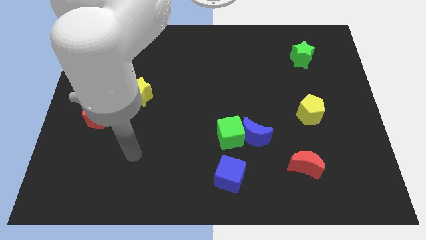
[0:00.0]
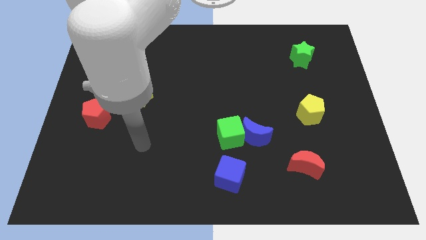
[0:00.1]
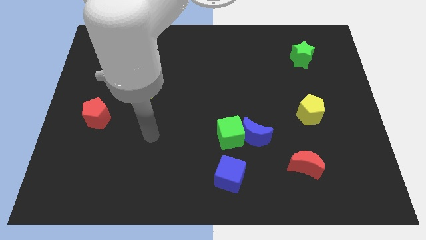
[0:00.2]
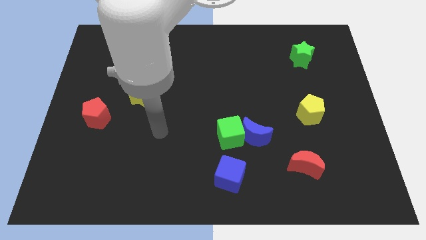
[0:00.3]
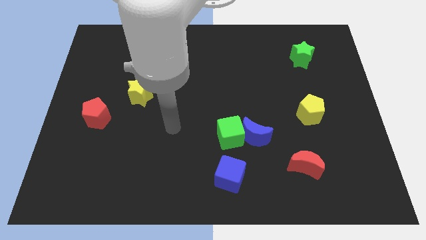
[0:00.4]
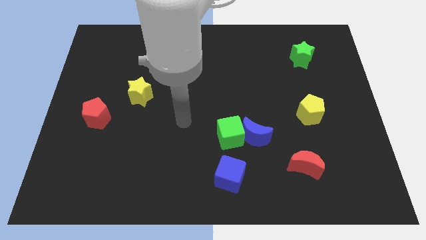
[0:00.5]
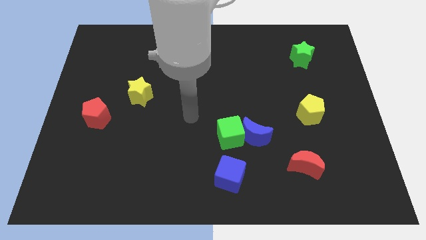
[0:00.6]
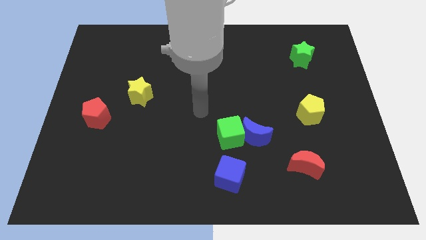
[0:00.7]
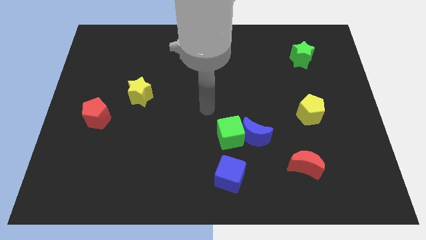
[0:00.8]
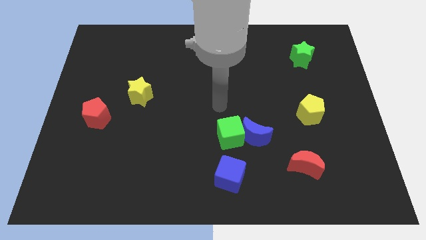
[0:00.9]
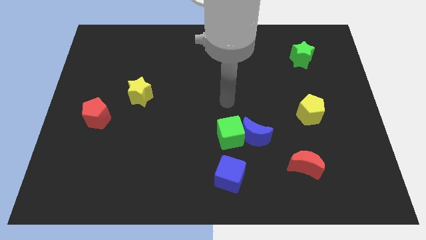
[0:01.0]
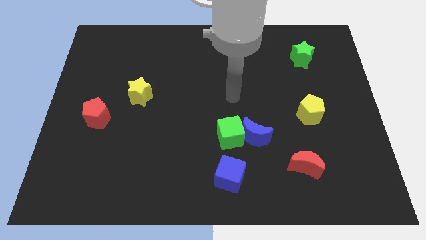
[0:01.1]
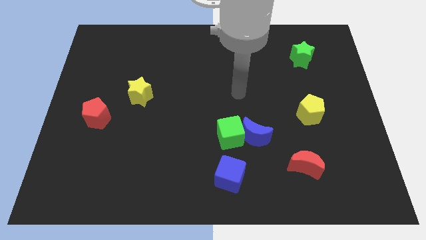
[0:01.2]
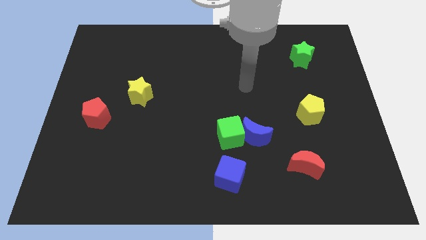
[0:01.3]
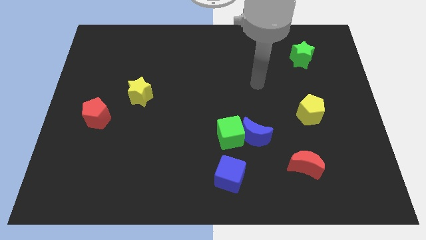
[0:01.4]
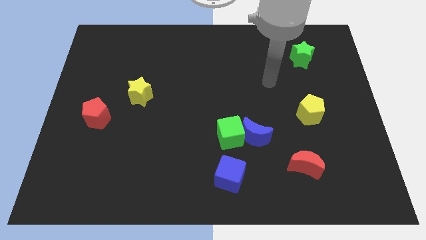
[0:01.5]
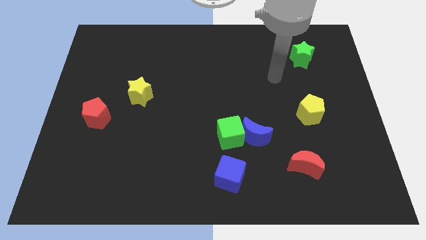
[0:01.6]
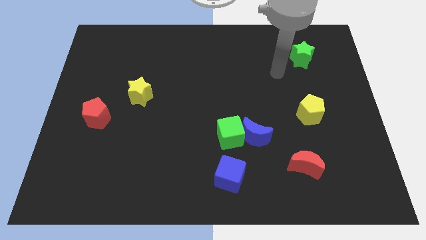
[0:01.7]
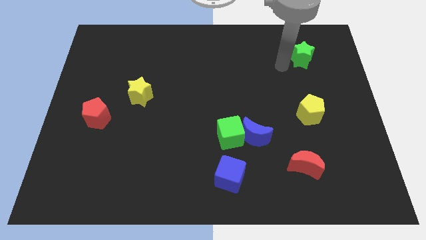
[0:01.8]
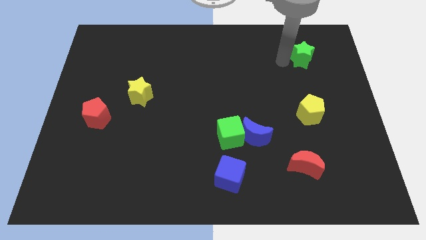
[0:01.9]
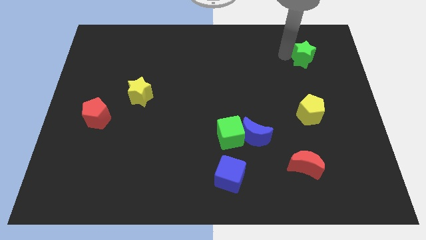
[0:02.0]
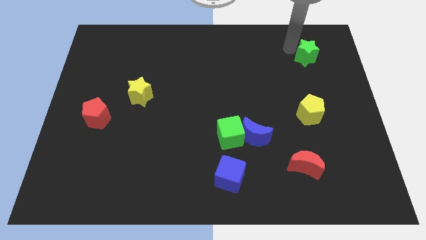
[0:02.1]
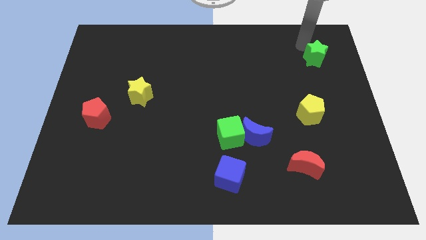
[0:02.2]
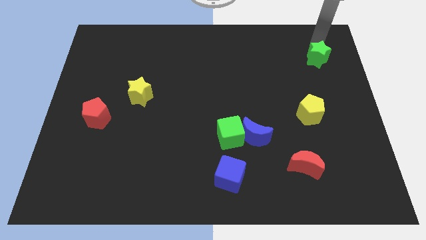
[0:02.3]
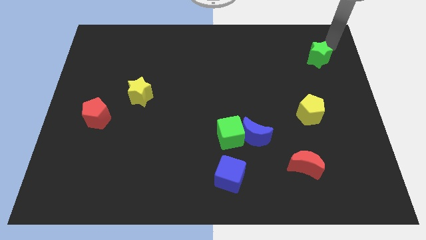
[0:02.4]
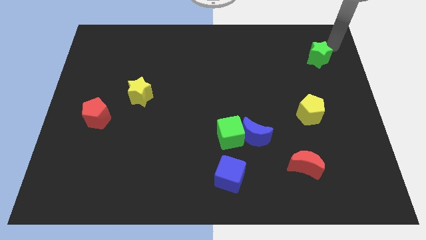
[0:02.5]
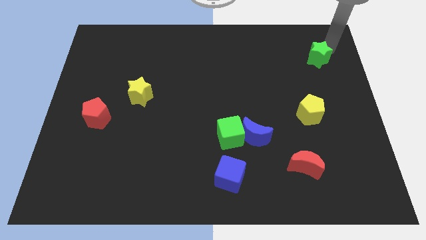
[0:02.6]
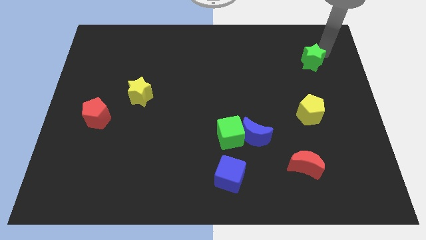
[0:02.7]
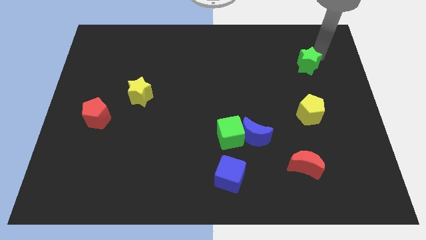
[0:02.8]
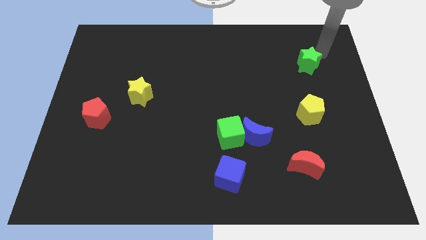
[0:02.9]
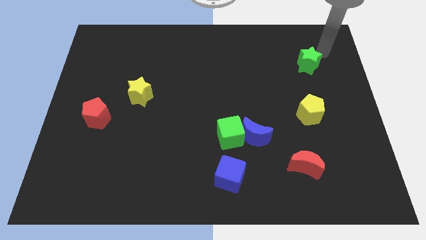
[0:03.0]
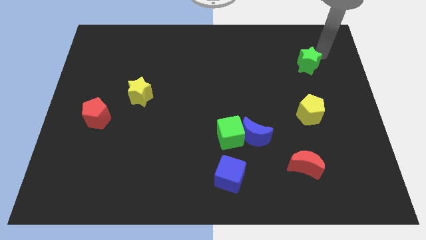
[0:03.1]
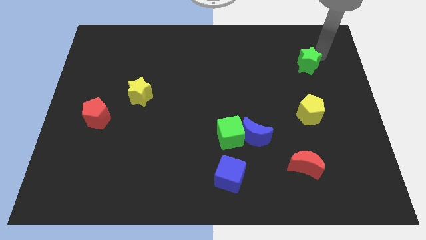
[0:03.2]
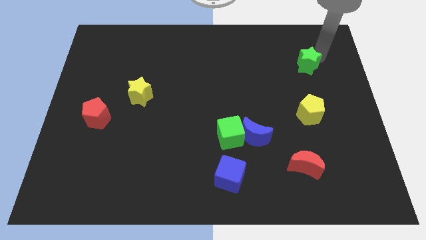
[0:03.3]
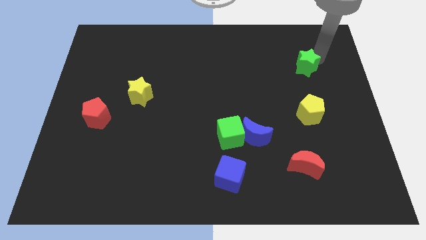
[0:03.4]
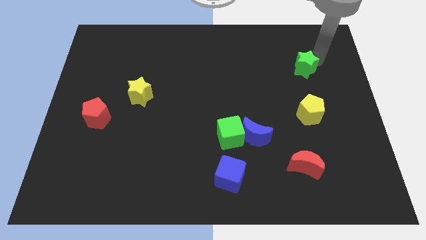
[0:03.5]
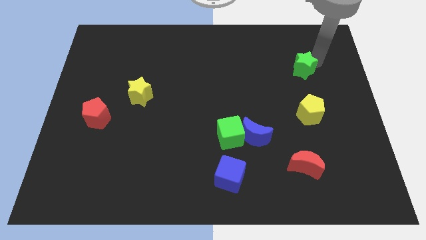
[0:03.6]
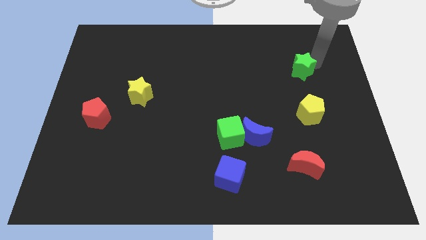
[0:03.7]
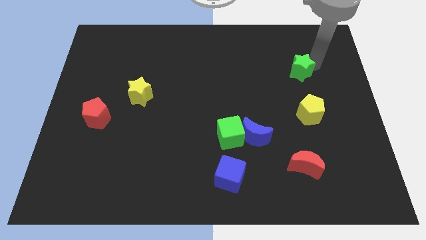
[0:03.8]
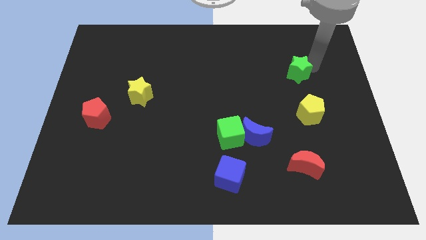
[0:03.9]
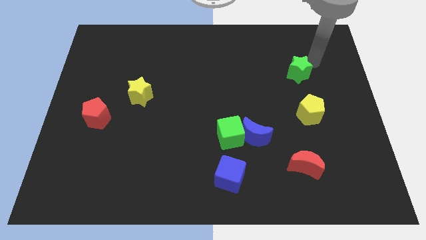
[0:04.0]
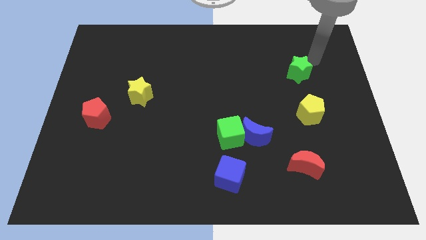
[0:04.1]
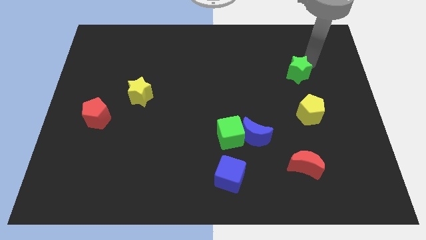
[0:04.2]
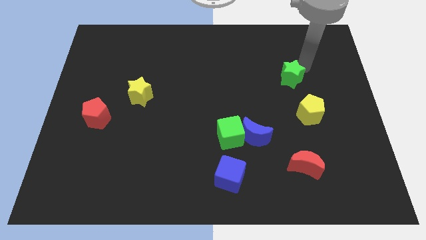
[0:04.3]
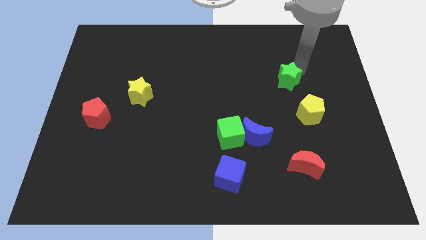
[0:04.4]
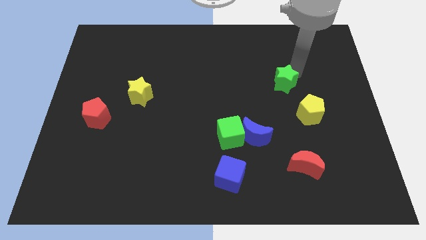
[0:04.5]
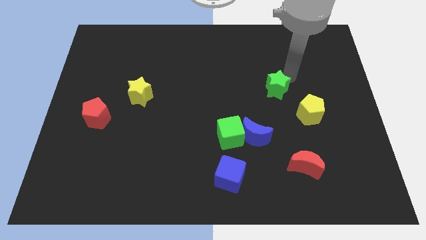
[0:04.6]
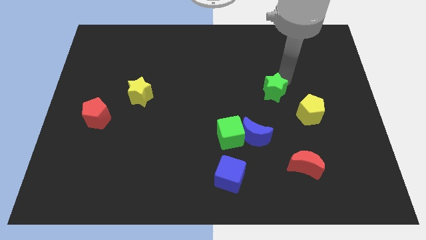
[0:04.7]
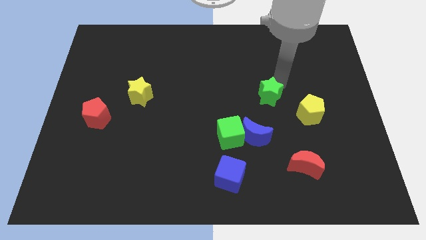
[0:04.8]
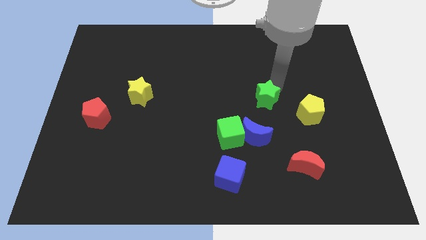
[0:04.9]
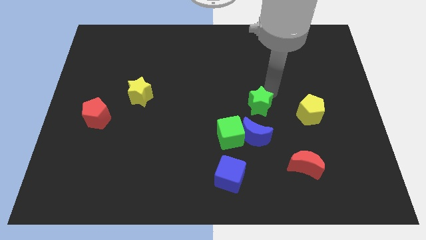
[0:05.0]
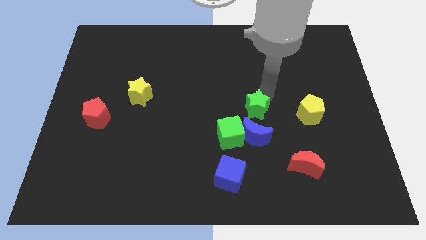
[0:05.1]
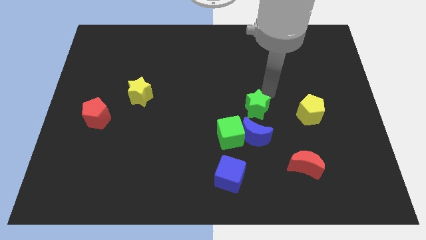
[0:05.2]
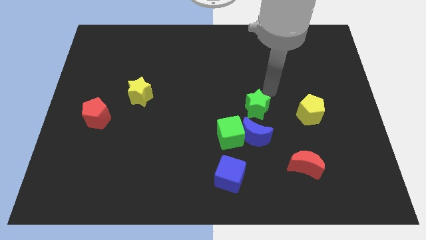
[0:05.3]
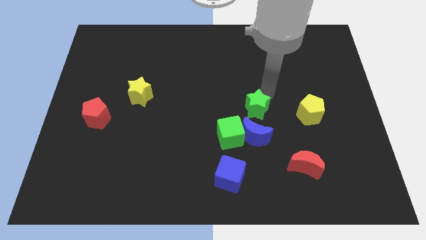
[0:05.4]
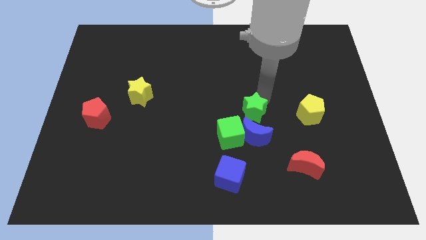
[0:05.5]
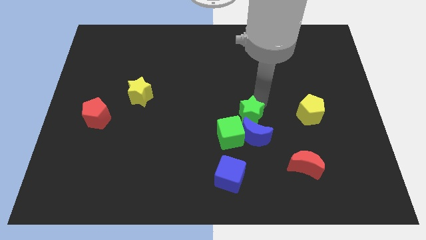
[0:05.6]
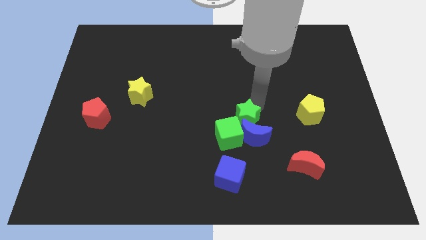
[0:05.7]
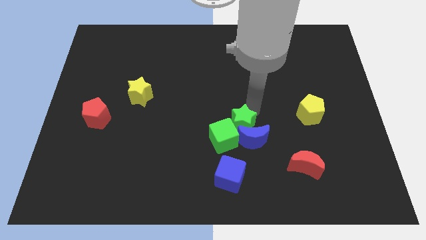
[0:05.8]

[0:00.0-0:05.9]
slide the green star to the green cube
